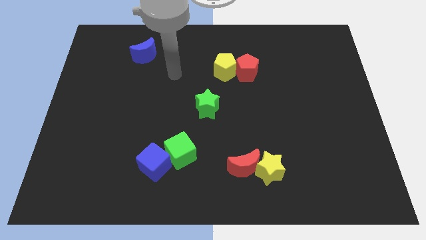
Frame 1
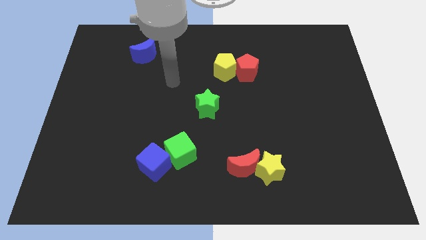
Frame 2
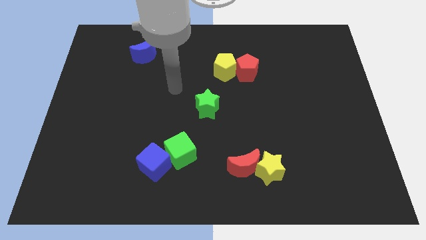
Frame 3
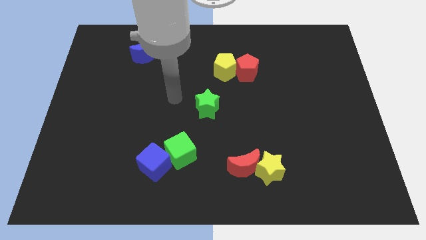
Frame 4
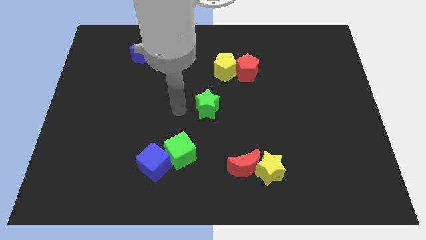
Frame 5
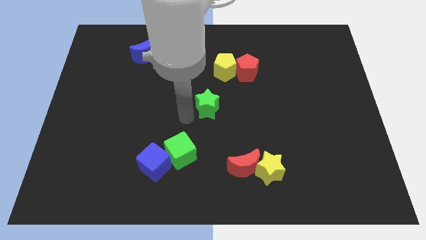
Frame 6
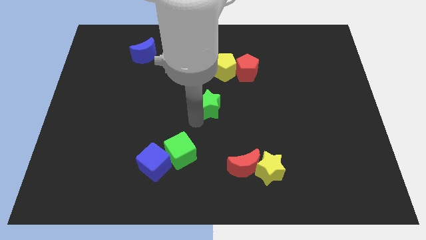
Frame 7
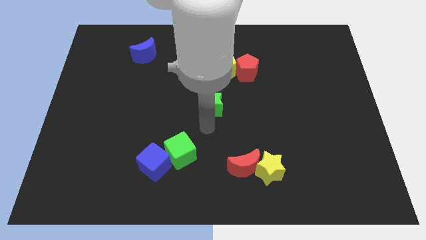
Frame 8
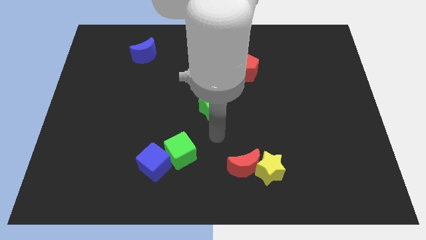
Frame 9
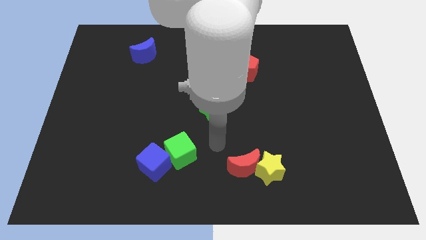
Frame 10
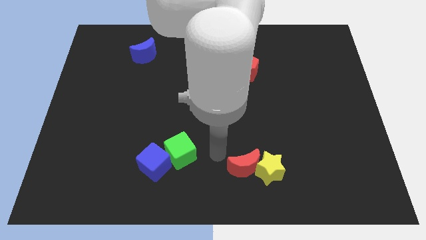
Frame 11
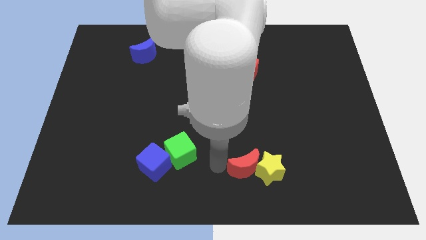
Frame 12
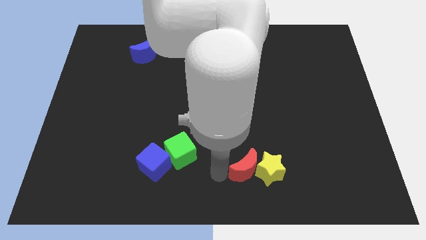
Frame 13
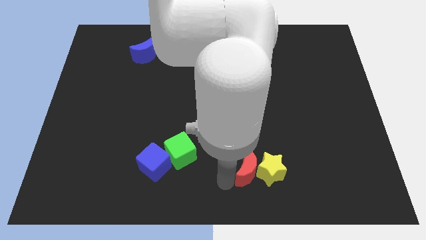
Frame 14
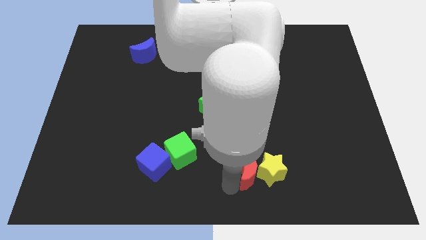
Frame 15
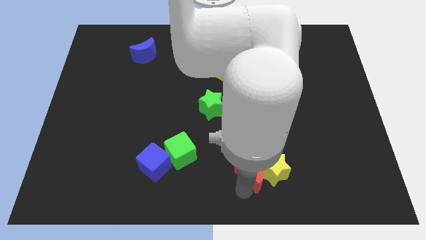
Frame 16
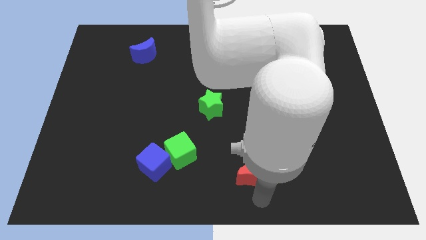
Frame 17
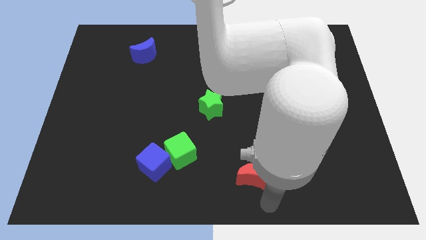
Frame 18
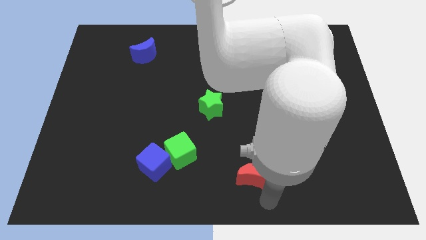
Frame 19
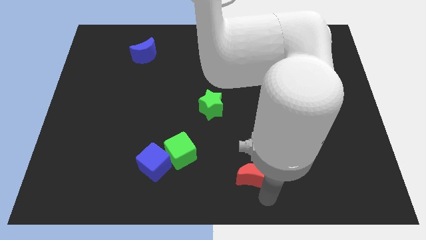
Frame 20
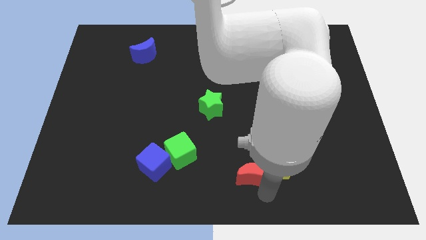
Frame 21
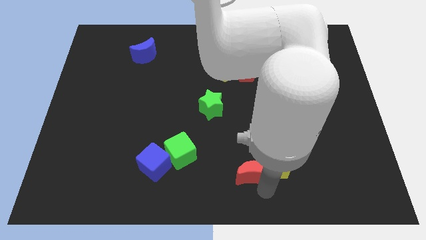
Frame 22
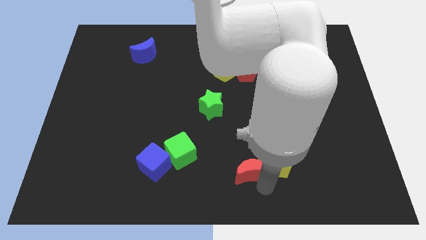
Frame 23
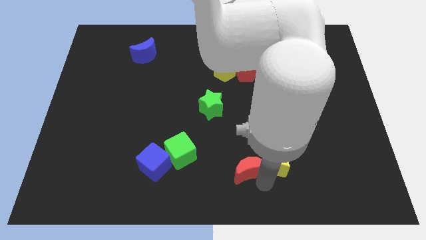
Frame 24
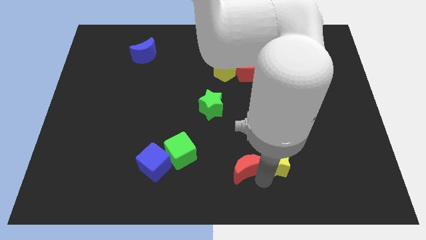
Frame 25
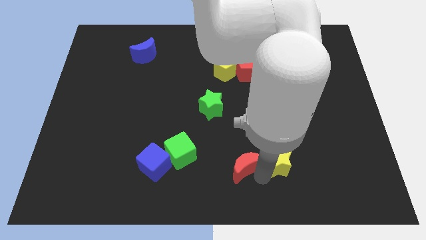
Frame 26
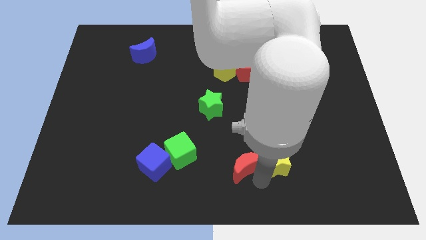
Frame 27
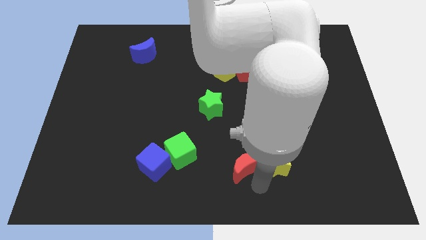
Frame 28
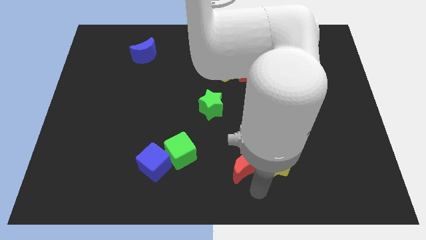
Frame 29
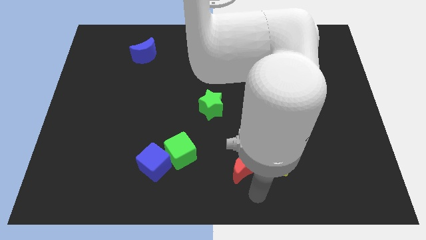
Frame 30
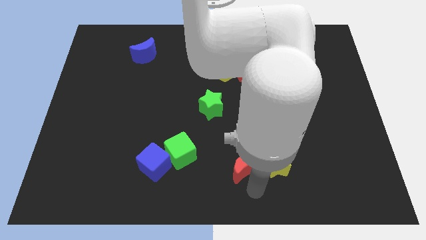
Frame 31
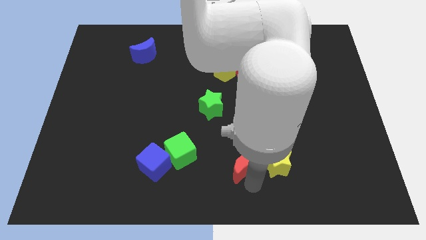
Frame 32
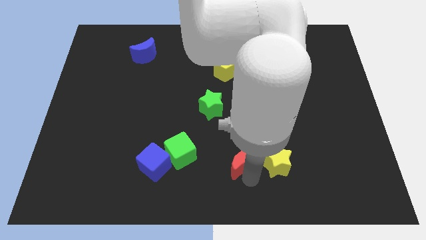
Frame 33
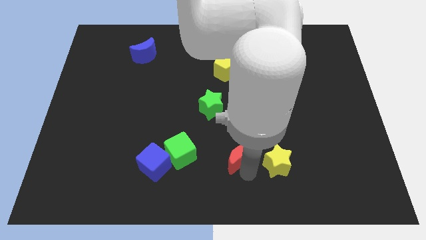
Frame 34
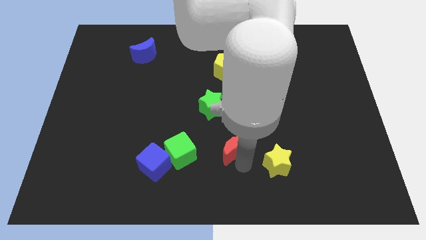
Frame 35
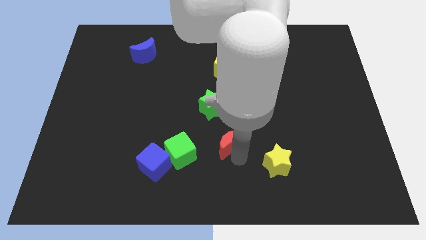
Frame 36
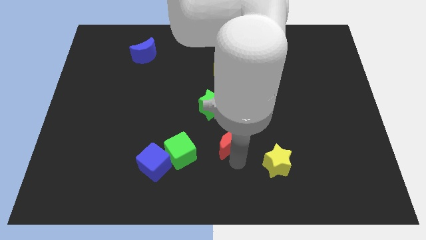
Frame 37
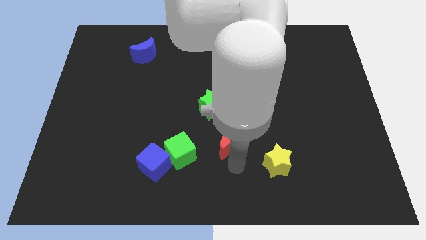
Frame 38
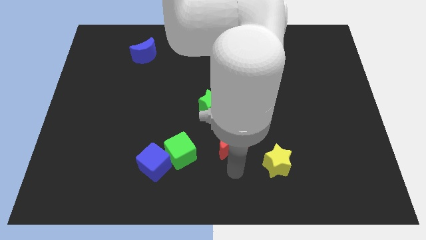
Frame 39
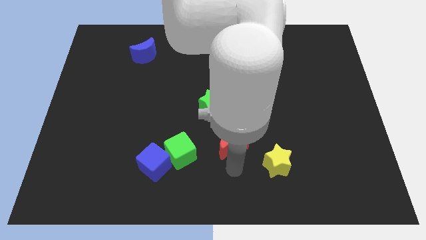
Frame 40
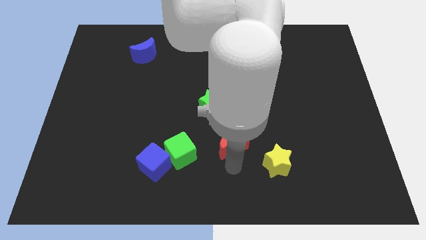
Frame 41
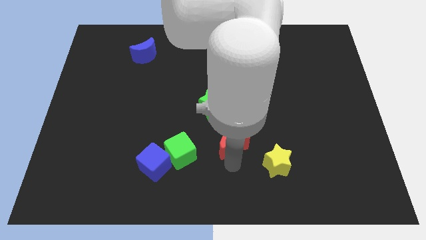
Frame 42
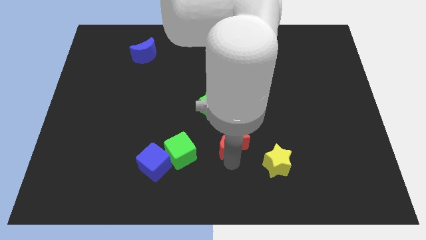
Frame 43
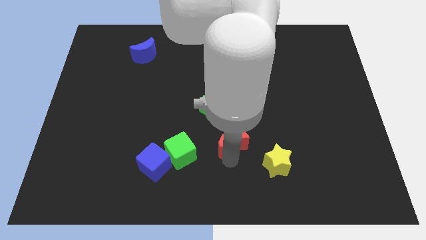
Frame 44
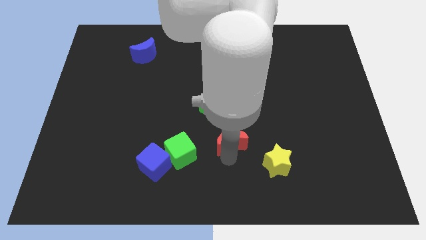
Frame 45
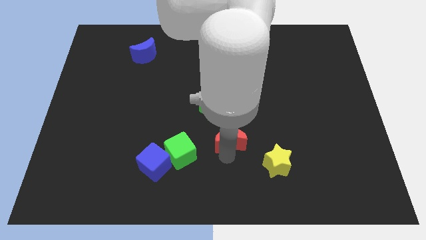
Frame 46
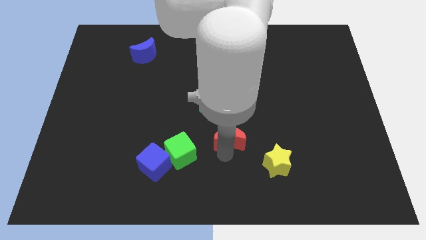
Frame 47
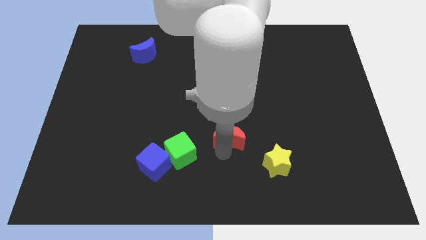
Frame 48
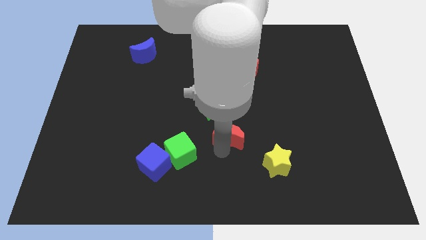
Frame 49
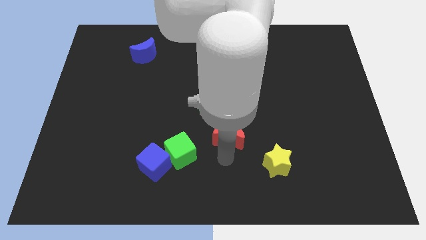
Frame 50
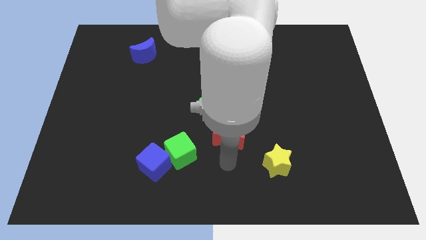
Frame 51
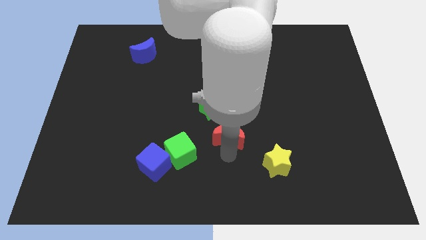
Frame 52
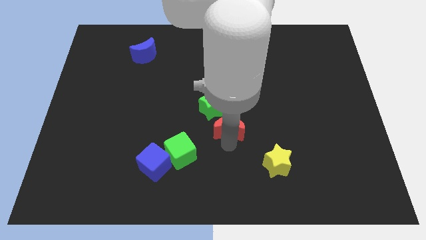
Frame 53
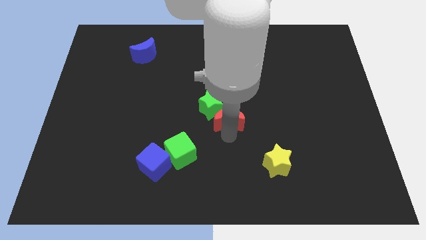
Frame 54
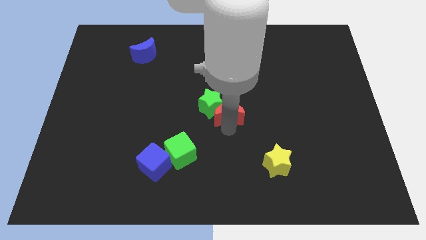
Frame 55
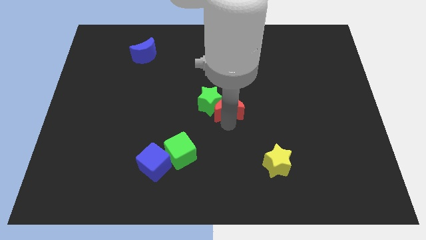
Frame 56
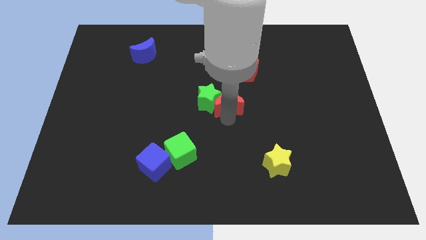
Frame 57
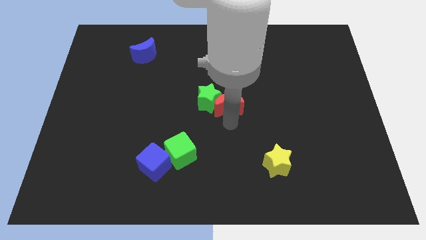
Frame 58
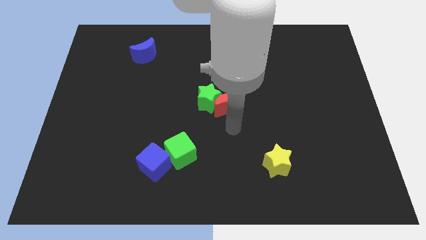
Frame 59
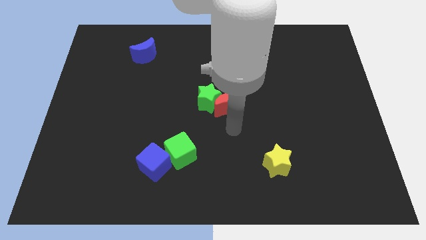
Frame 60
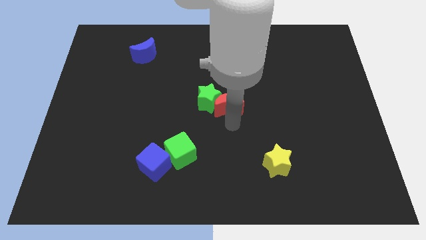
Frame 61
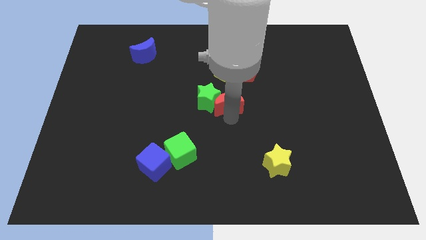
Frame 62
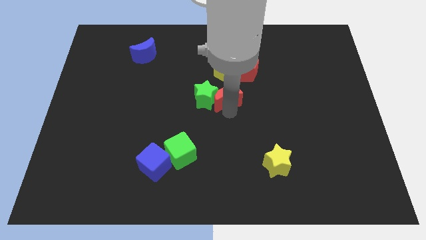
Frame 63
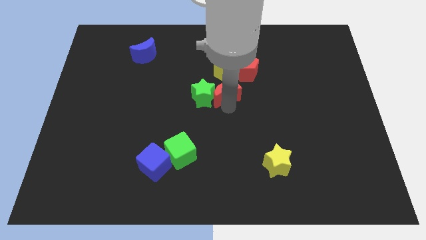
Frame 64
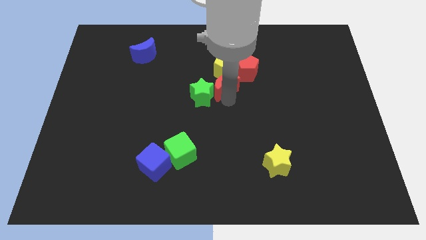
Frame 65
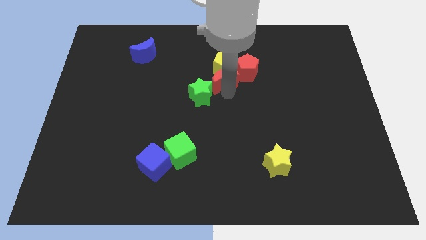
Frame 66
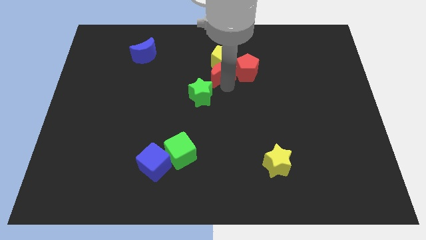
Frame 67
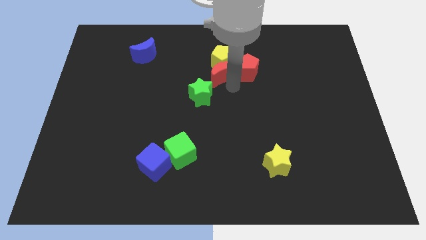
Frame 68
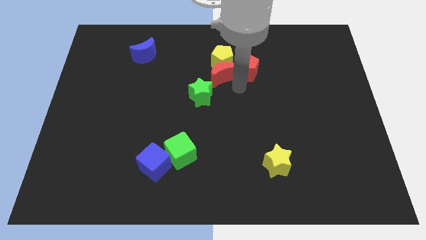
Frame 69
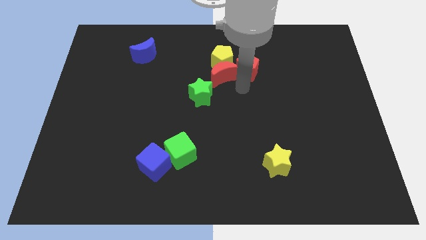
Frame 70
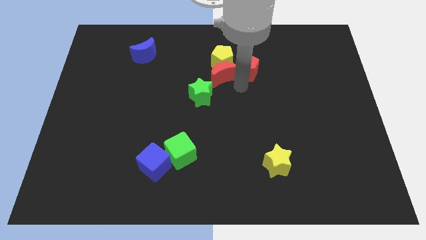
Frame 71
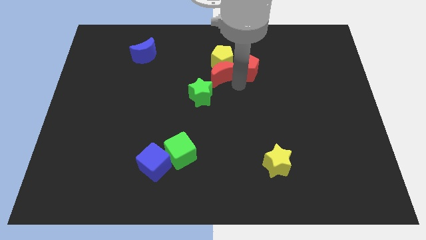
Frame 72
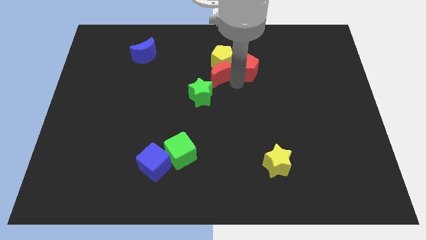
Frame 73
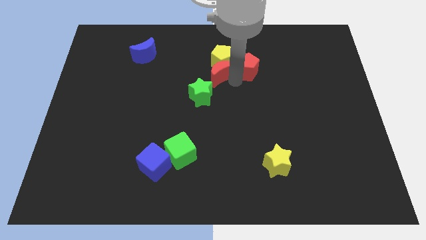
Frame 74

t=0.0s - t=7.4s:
push the red moon to the top side of the green star

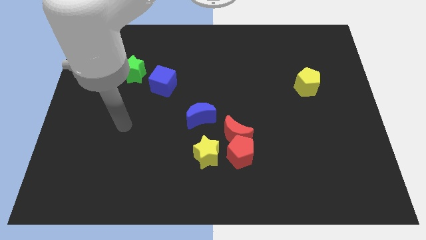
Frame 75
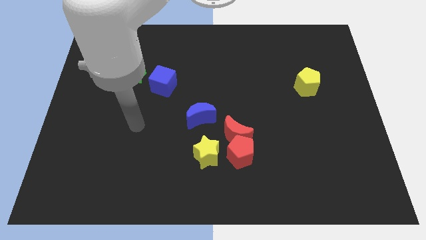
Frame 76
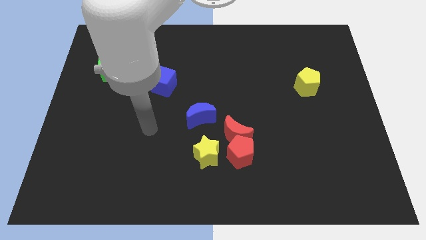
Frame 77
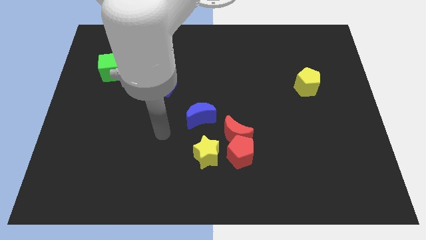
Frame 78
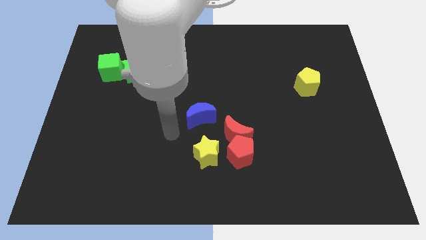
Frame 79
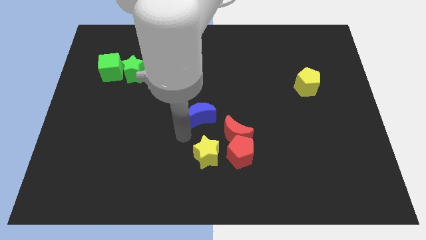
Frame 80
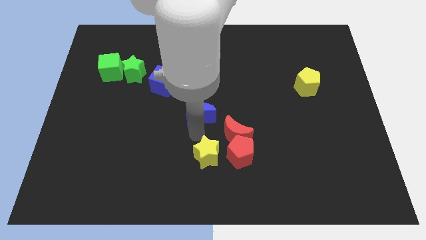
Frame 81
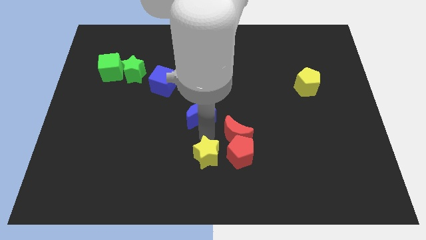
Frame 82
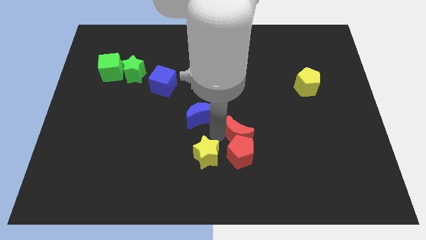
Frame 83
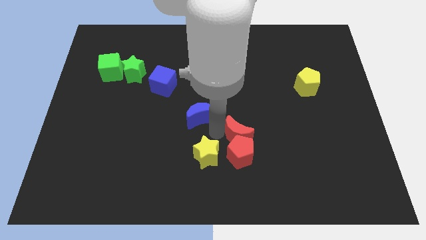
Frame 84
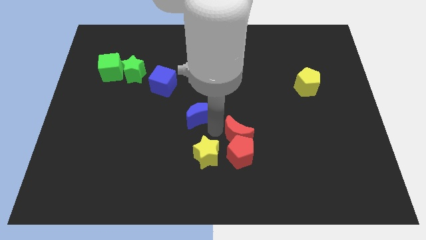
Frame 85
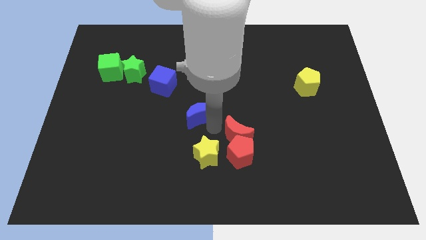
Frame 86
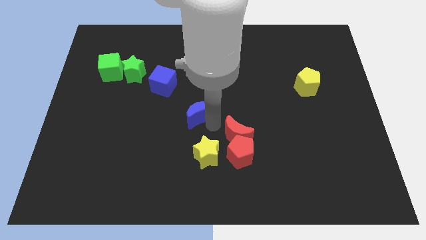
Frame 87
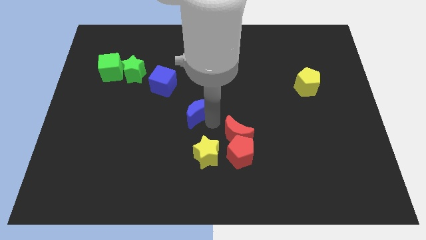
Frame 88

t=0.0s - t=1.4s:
move the blue moon to the bottom right side of the blue cube
